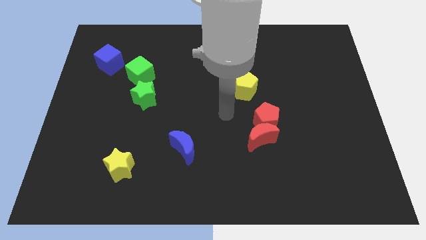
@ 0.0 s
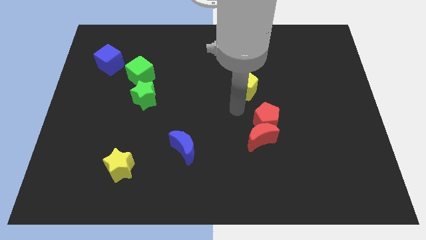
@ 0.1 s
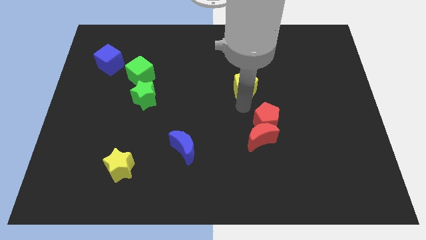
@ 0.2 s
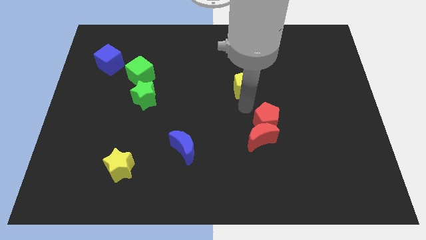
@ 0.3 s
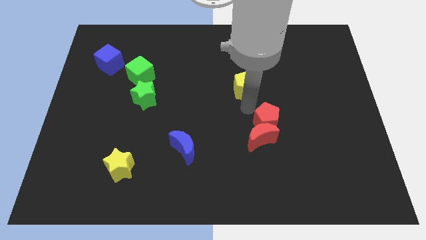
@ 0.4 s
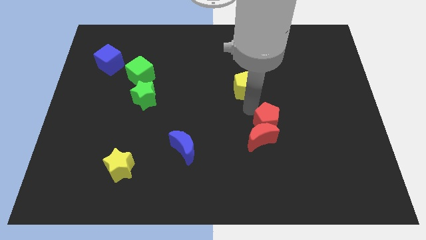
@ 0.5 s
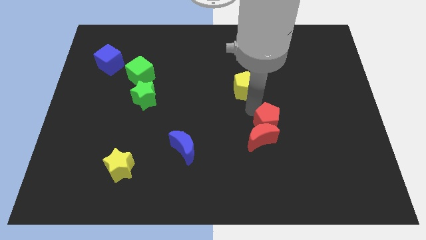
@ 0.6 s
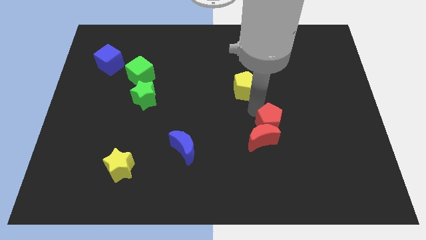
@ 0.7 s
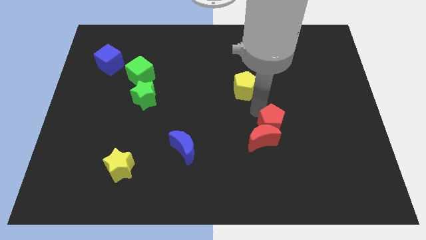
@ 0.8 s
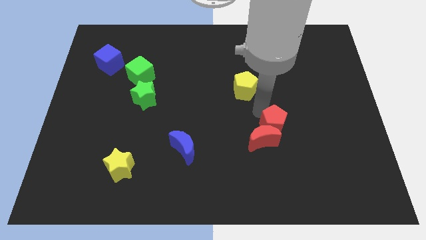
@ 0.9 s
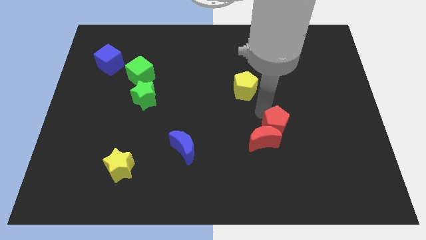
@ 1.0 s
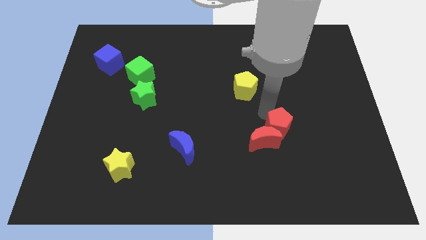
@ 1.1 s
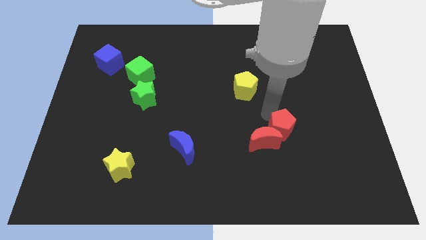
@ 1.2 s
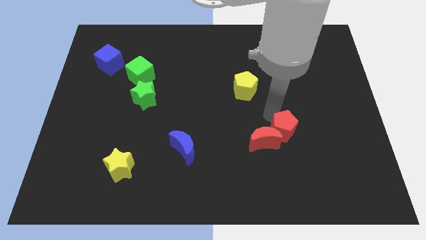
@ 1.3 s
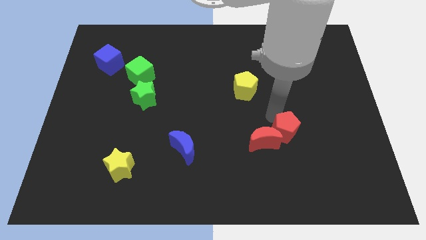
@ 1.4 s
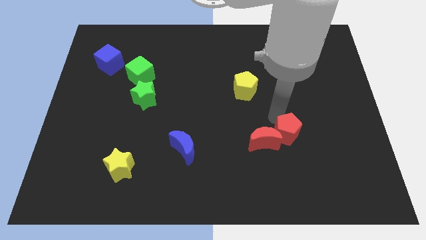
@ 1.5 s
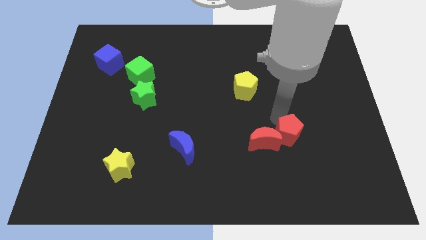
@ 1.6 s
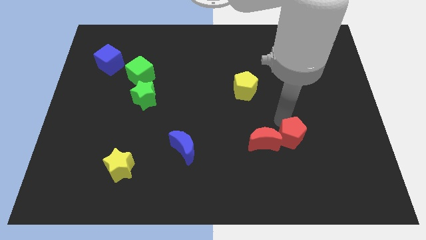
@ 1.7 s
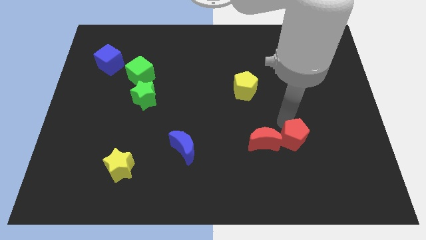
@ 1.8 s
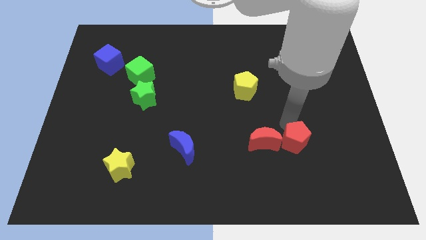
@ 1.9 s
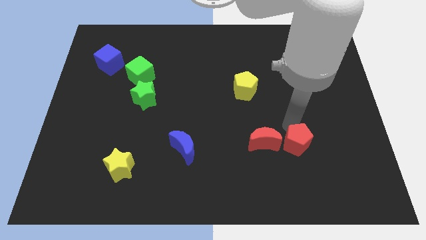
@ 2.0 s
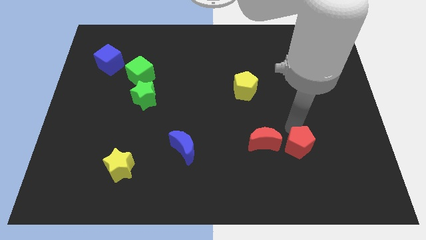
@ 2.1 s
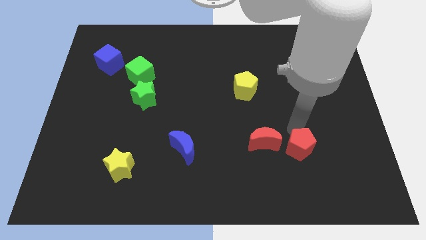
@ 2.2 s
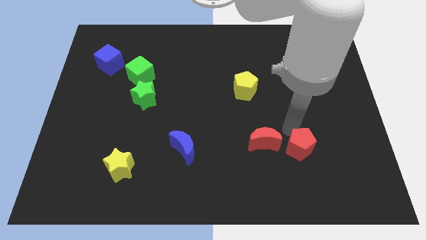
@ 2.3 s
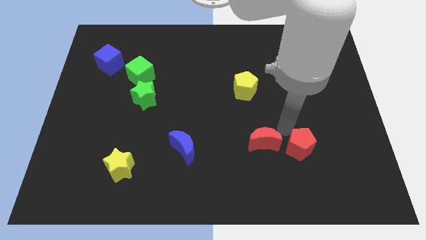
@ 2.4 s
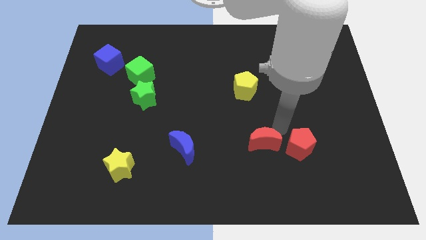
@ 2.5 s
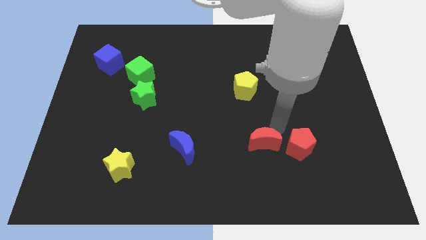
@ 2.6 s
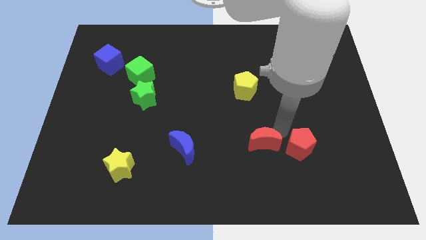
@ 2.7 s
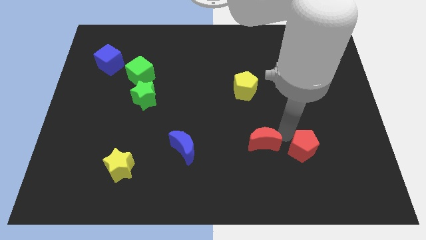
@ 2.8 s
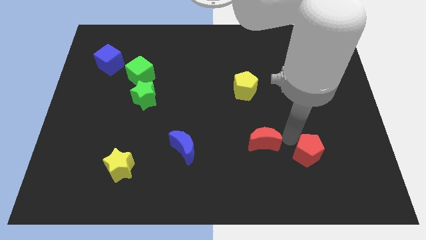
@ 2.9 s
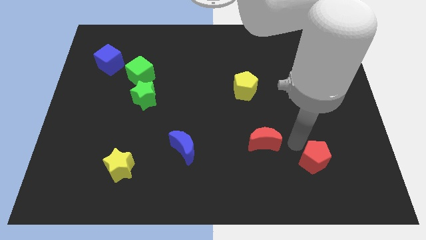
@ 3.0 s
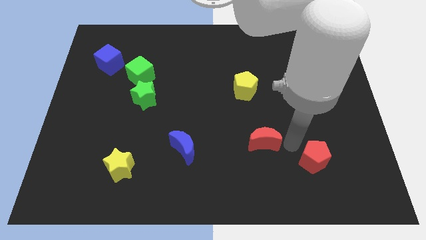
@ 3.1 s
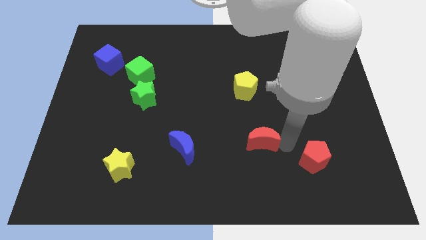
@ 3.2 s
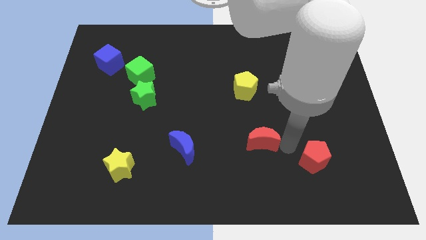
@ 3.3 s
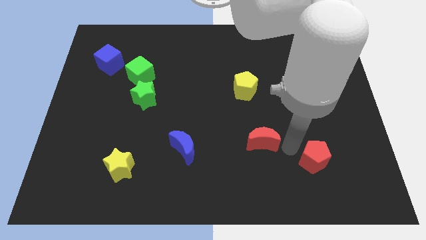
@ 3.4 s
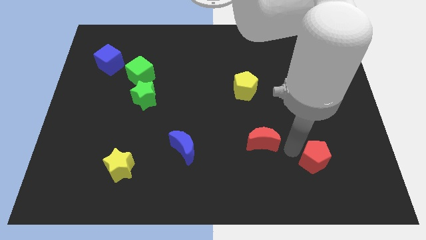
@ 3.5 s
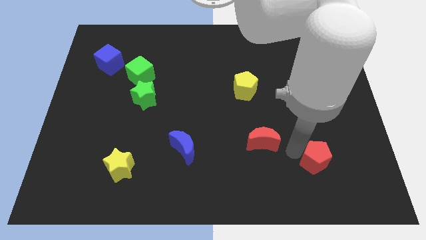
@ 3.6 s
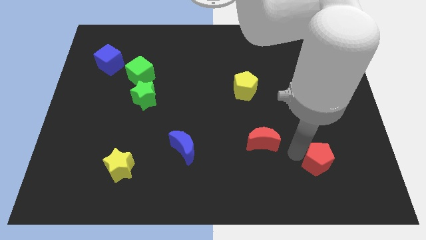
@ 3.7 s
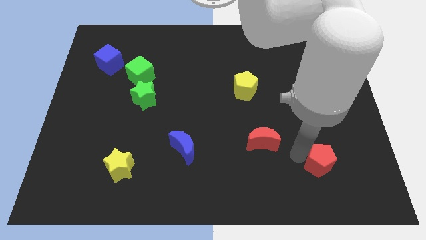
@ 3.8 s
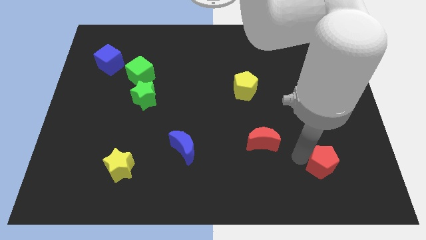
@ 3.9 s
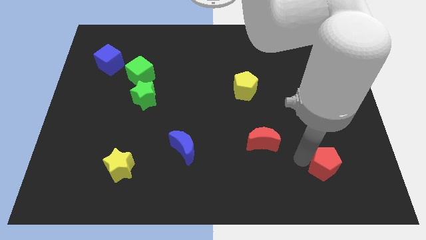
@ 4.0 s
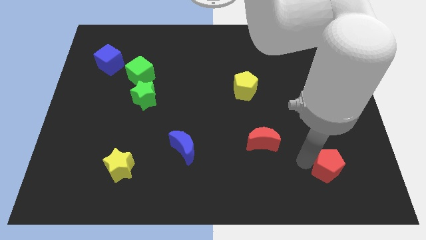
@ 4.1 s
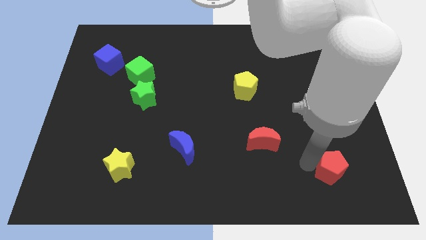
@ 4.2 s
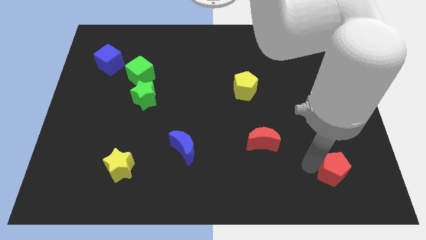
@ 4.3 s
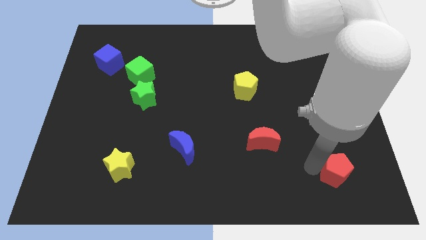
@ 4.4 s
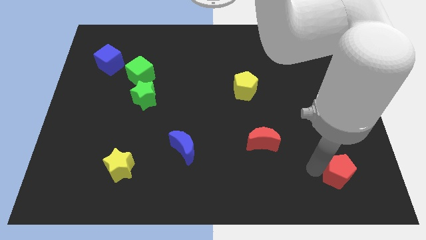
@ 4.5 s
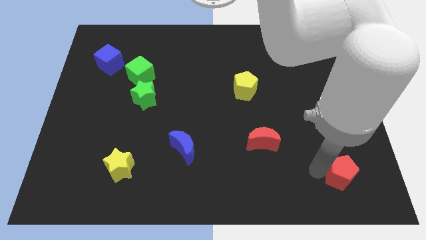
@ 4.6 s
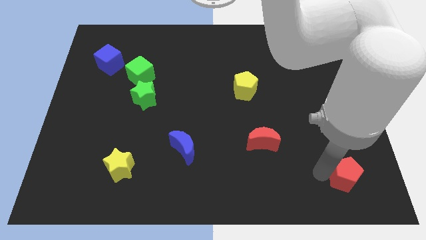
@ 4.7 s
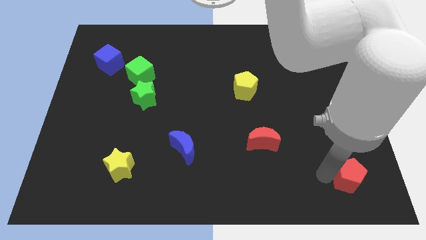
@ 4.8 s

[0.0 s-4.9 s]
push the red pentagon to the bottom right of the board

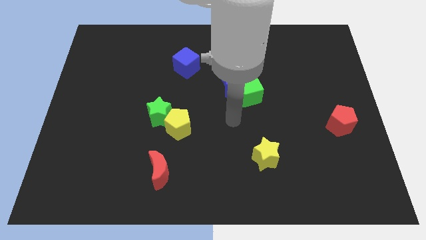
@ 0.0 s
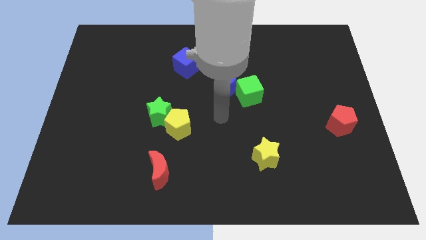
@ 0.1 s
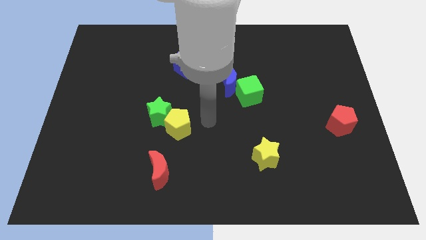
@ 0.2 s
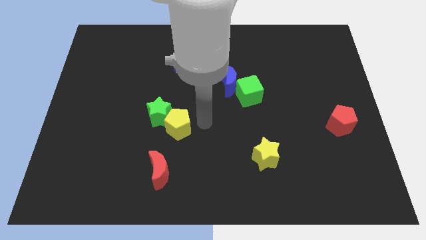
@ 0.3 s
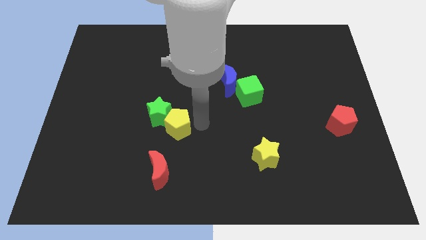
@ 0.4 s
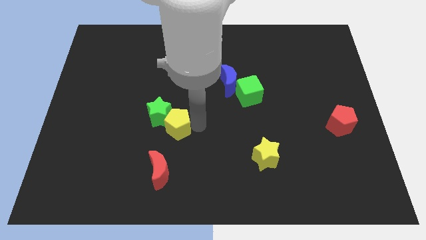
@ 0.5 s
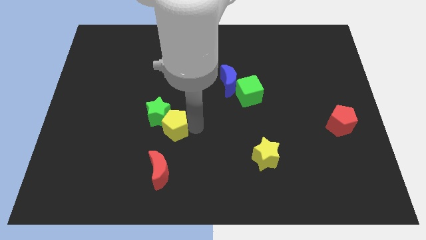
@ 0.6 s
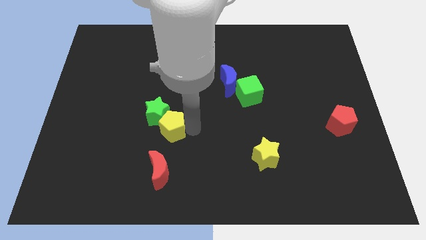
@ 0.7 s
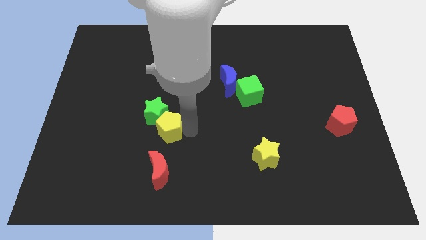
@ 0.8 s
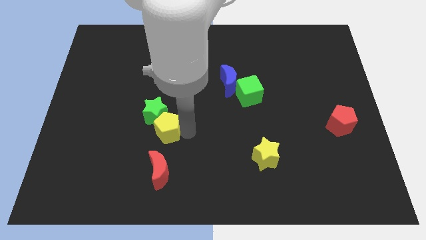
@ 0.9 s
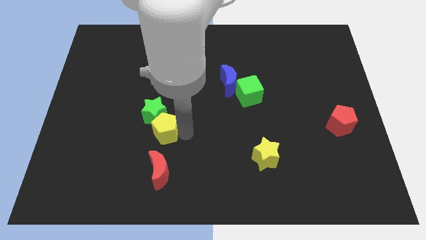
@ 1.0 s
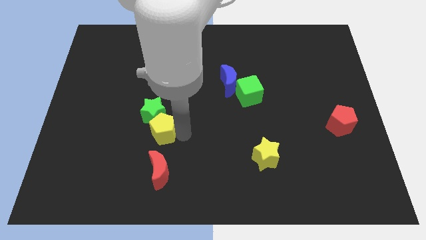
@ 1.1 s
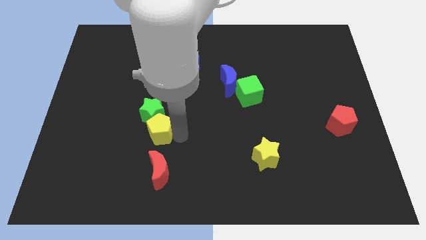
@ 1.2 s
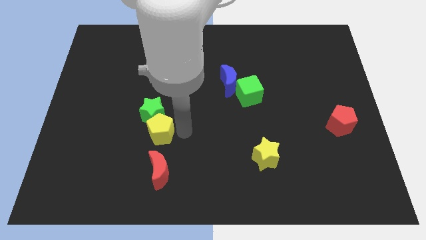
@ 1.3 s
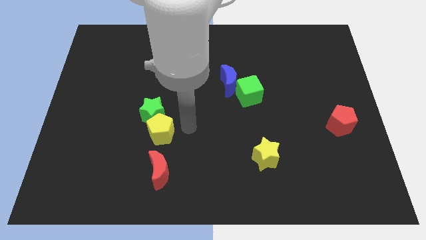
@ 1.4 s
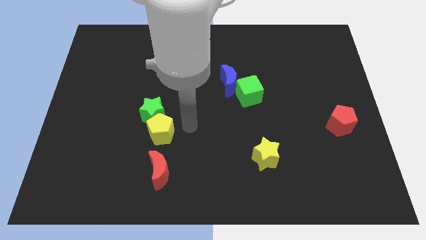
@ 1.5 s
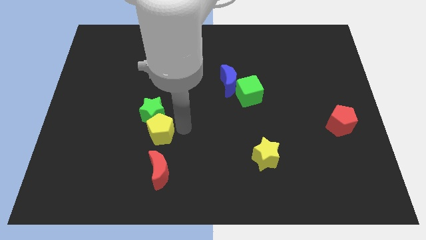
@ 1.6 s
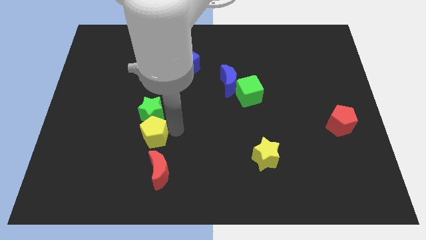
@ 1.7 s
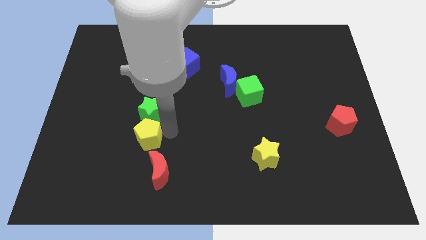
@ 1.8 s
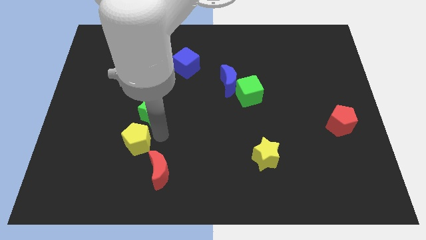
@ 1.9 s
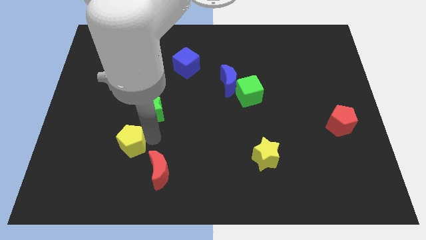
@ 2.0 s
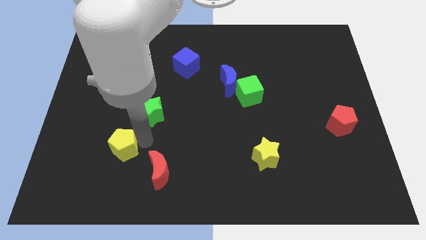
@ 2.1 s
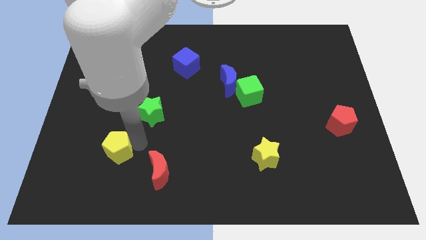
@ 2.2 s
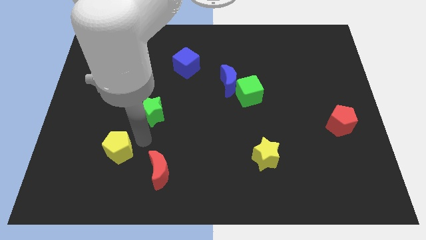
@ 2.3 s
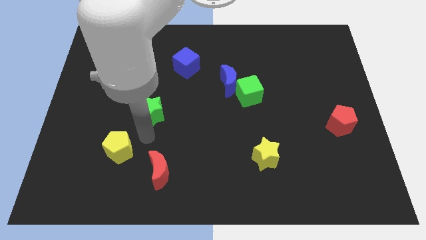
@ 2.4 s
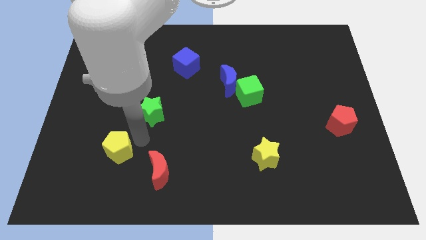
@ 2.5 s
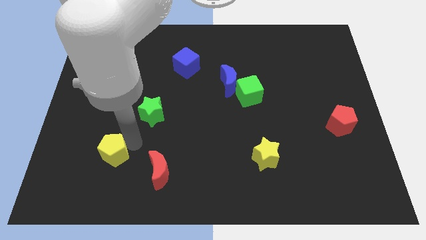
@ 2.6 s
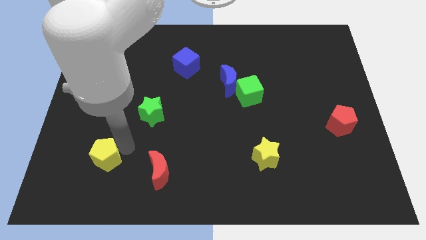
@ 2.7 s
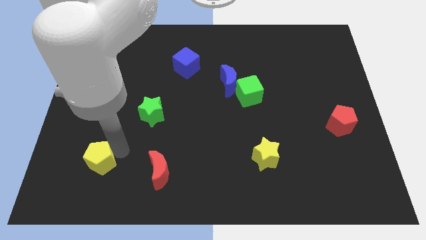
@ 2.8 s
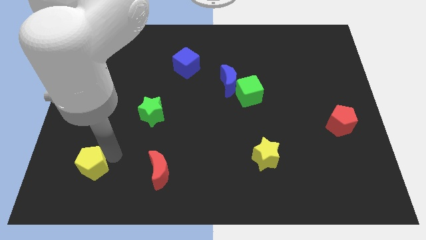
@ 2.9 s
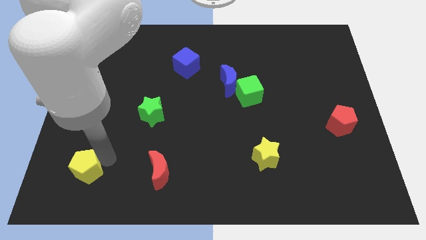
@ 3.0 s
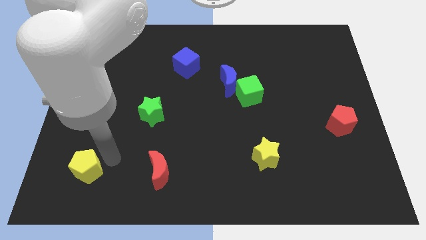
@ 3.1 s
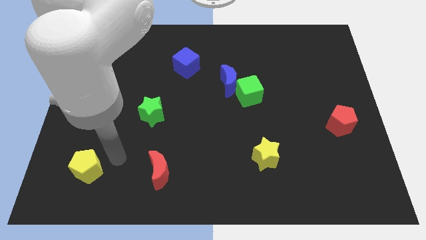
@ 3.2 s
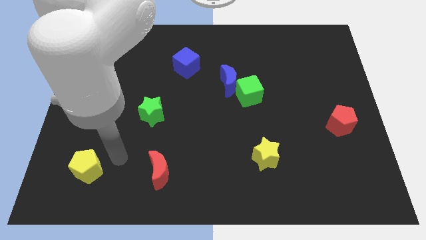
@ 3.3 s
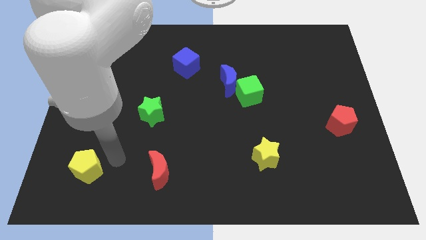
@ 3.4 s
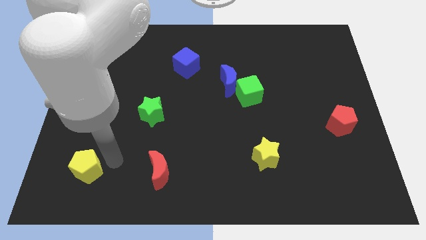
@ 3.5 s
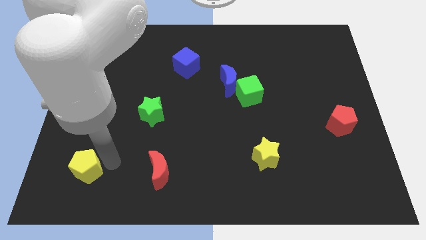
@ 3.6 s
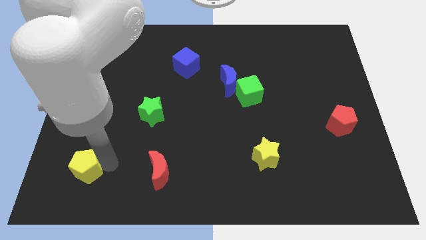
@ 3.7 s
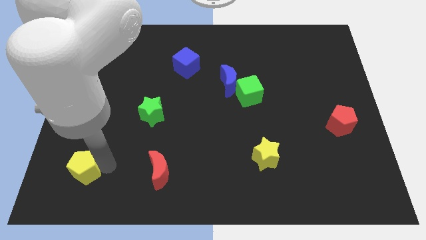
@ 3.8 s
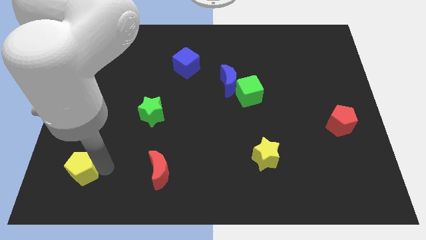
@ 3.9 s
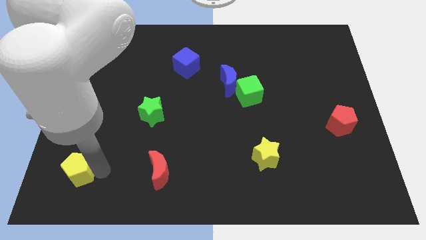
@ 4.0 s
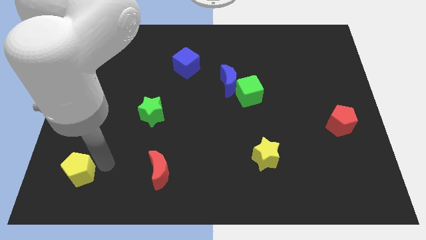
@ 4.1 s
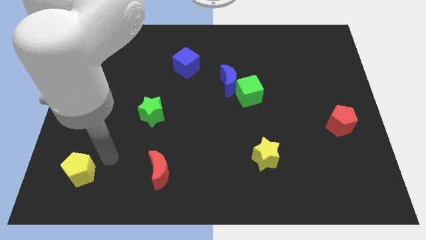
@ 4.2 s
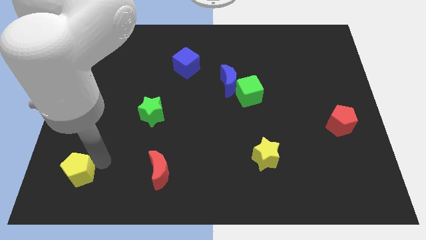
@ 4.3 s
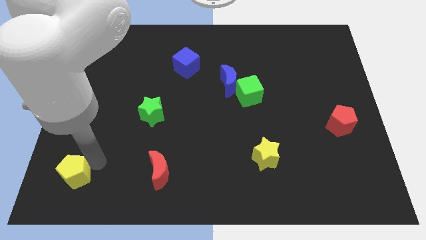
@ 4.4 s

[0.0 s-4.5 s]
move the yellow pentagon to the lower left corner
